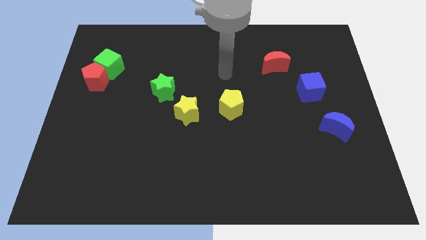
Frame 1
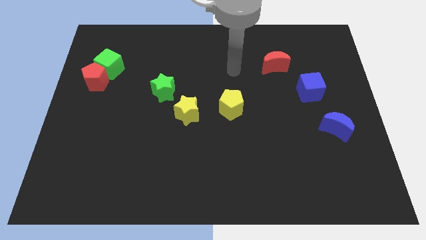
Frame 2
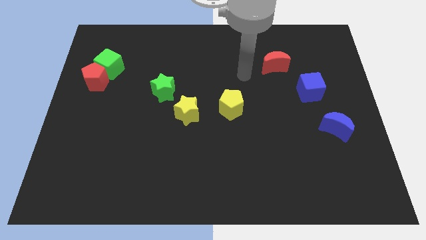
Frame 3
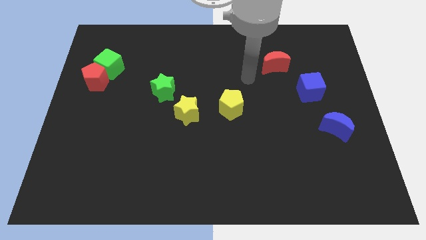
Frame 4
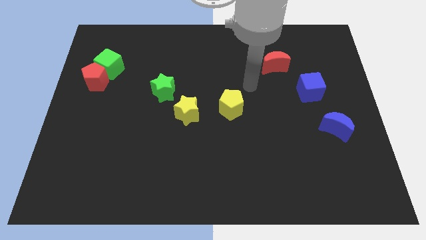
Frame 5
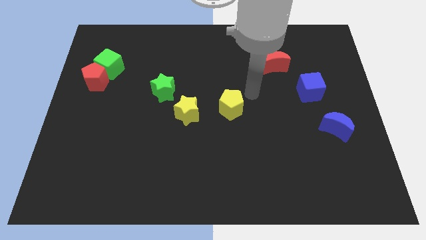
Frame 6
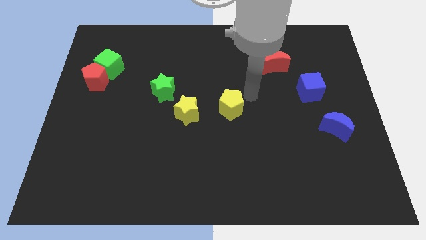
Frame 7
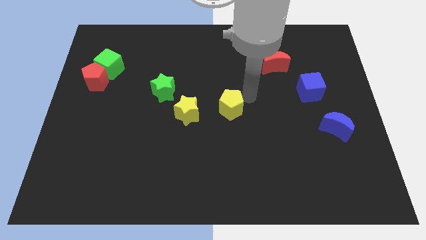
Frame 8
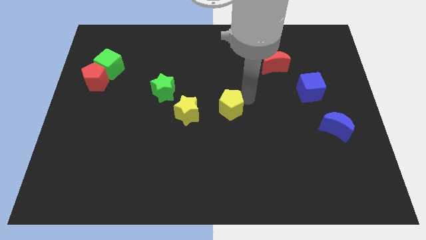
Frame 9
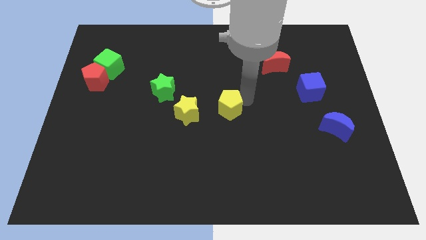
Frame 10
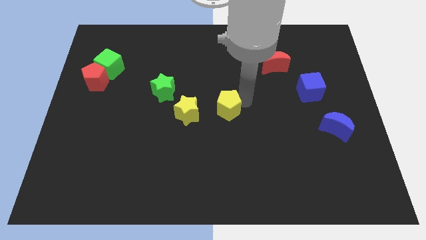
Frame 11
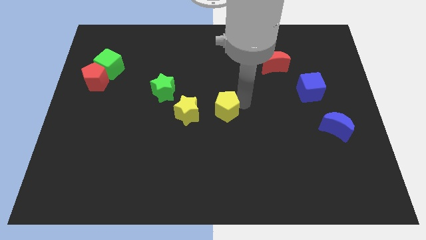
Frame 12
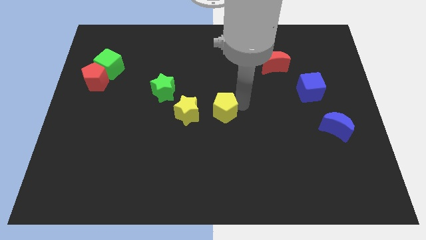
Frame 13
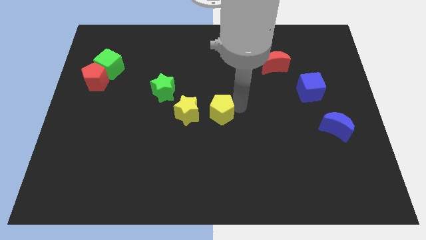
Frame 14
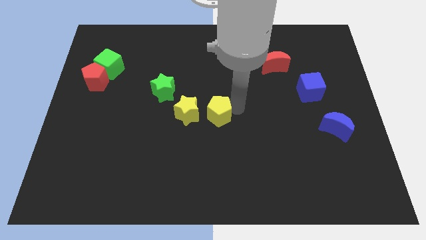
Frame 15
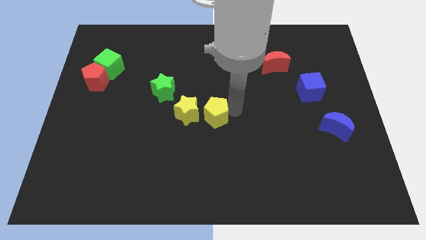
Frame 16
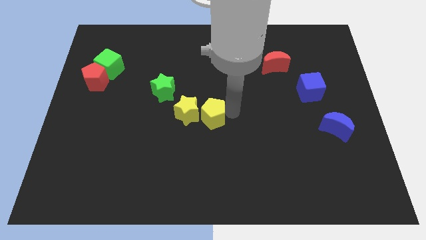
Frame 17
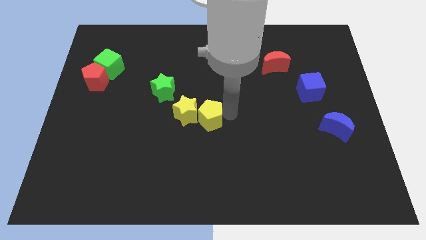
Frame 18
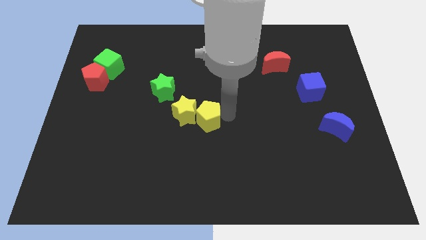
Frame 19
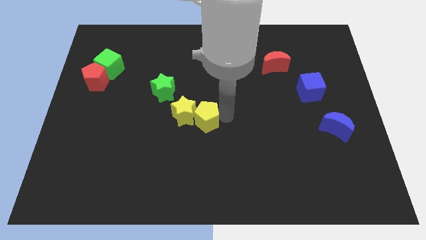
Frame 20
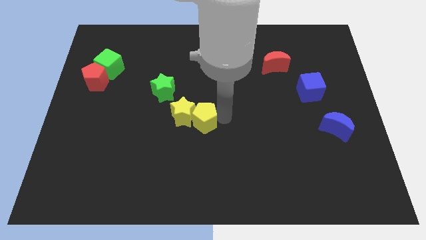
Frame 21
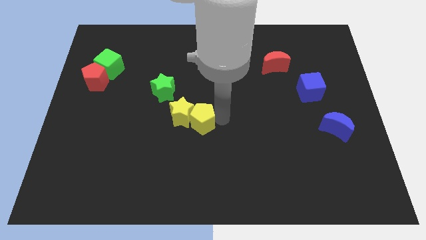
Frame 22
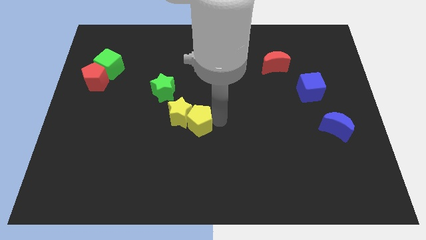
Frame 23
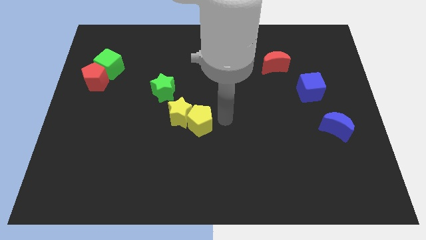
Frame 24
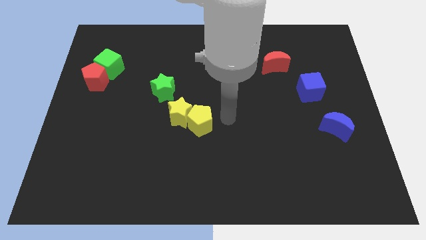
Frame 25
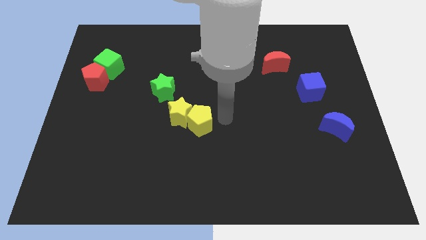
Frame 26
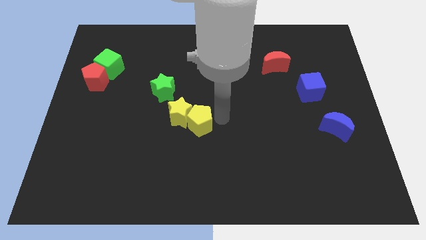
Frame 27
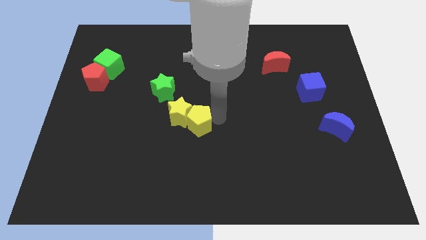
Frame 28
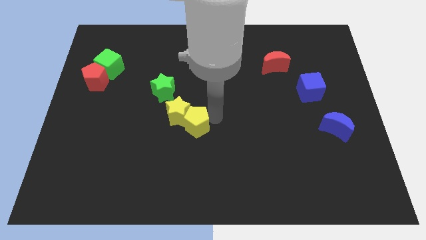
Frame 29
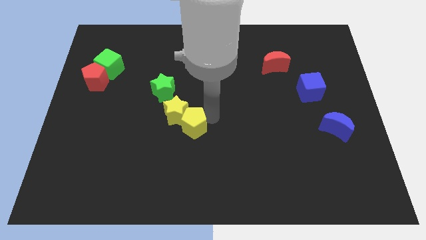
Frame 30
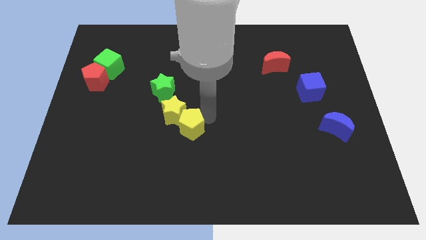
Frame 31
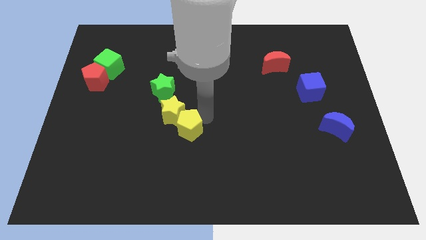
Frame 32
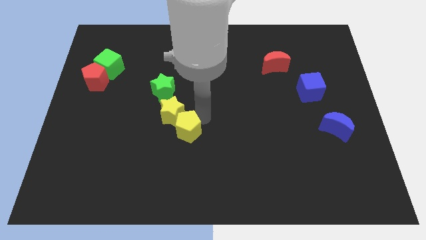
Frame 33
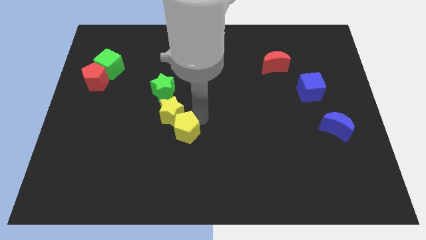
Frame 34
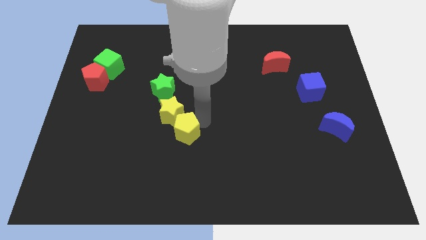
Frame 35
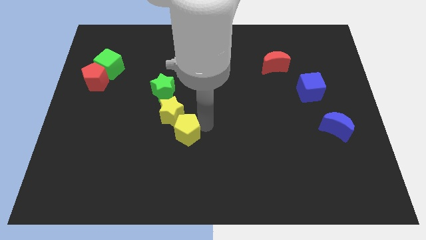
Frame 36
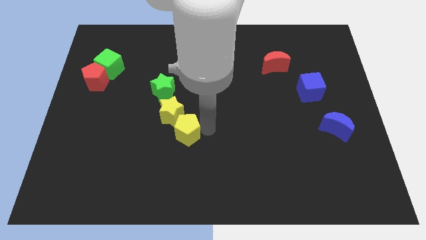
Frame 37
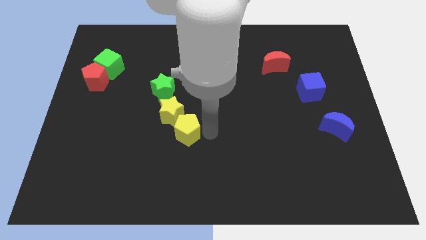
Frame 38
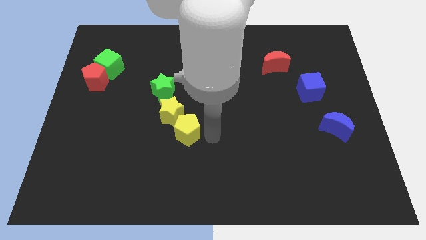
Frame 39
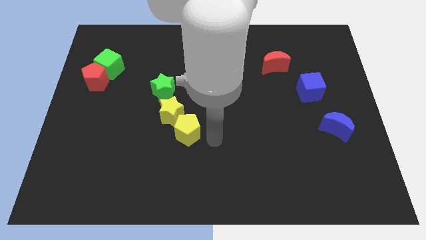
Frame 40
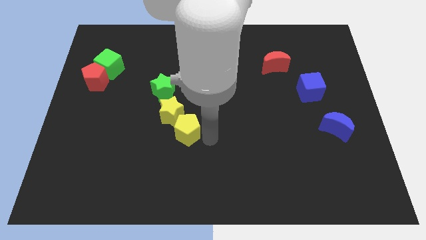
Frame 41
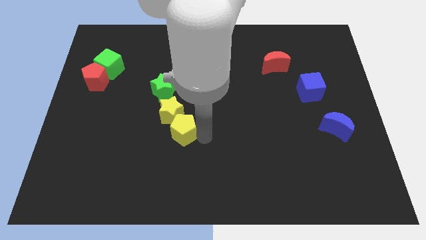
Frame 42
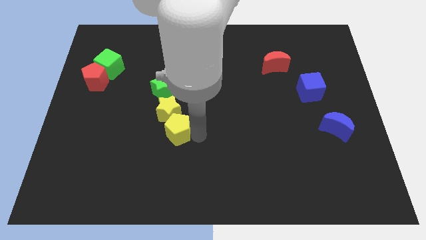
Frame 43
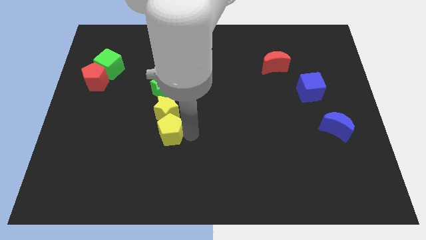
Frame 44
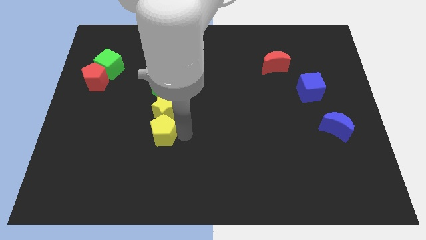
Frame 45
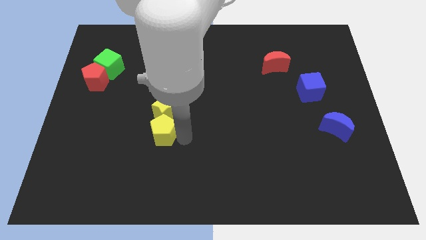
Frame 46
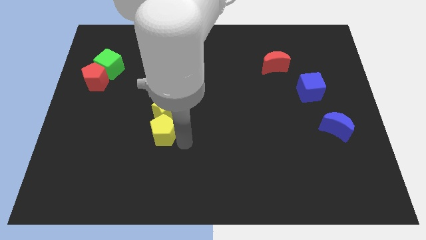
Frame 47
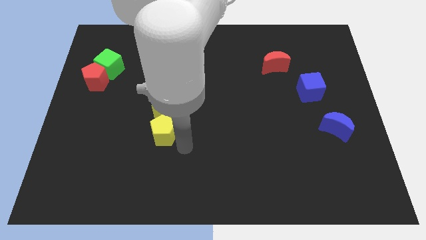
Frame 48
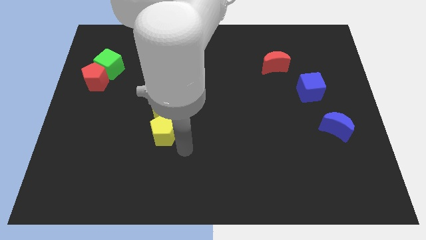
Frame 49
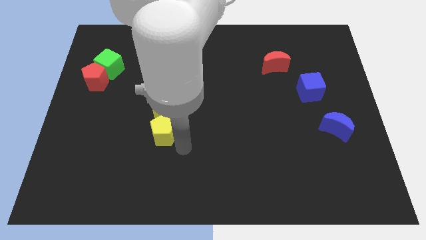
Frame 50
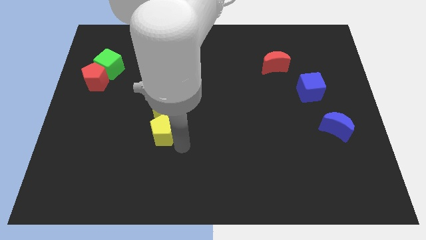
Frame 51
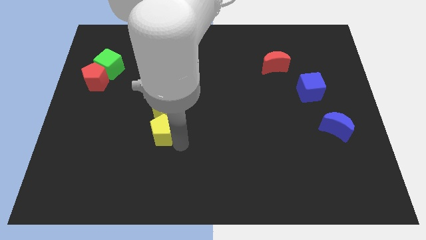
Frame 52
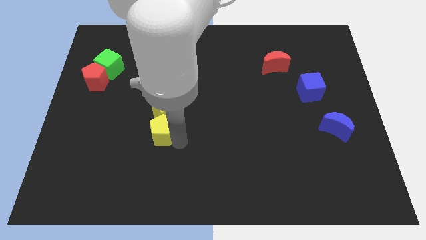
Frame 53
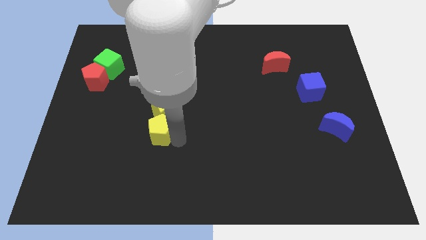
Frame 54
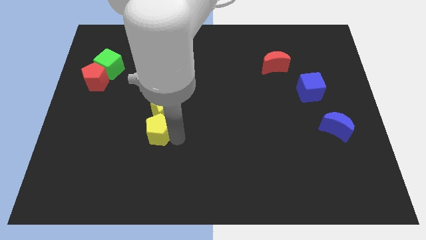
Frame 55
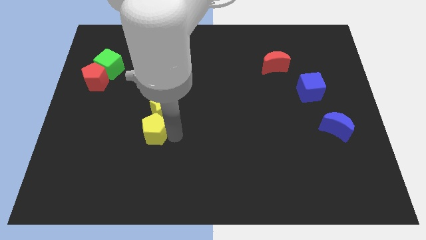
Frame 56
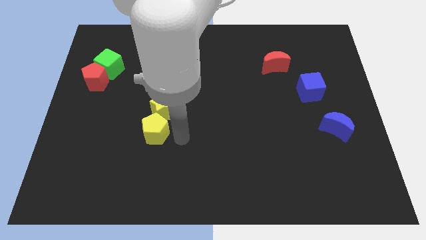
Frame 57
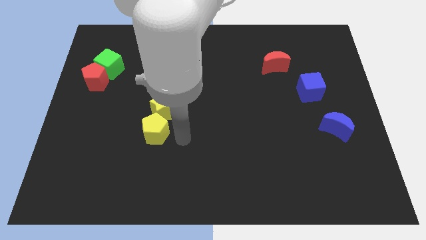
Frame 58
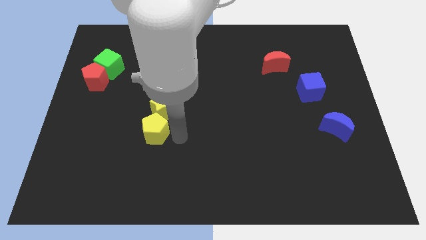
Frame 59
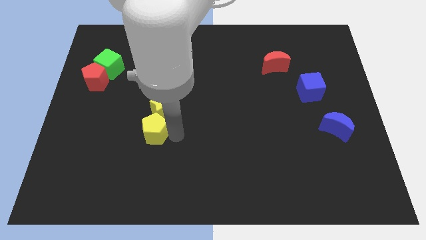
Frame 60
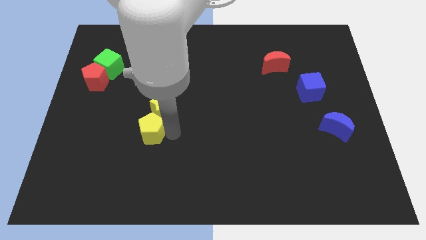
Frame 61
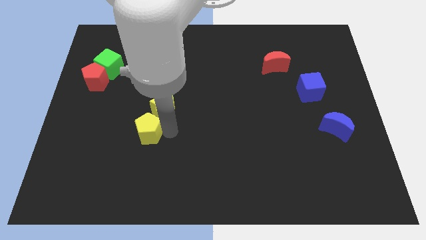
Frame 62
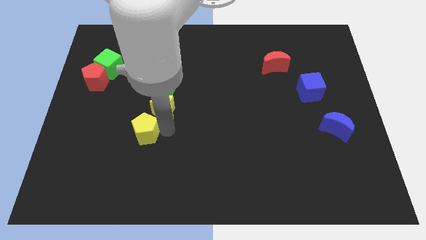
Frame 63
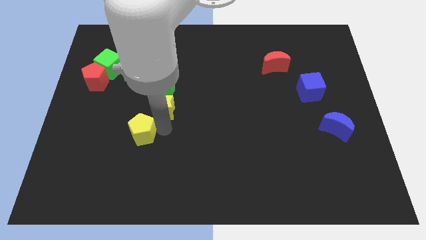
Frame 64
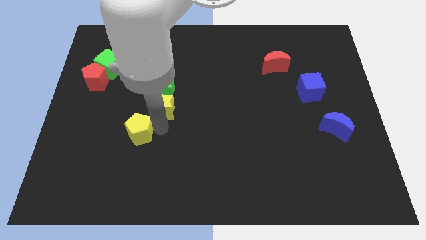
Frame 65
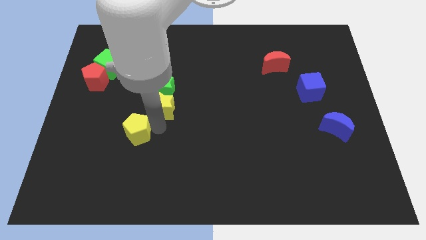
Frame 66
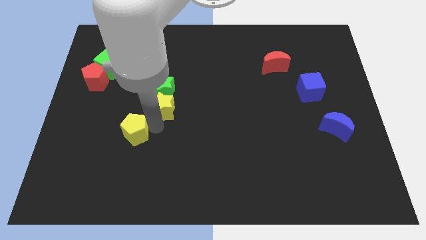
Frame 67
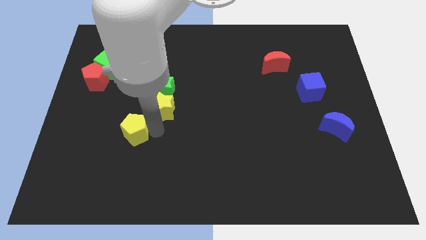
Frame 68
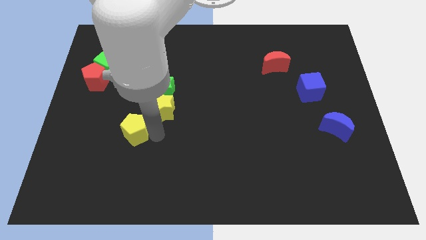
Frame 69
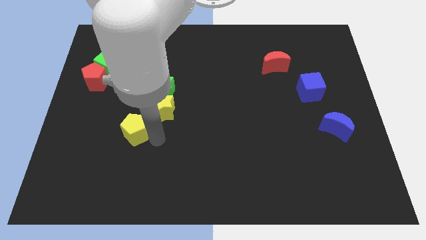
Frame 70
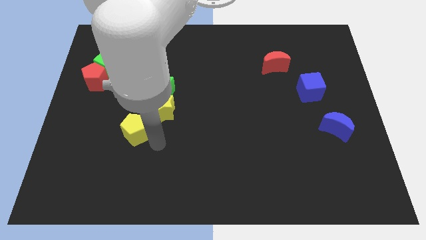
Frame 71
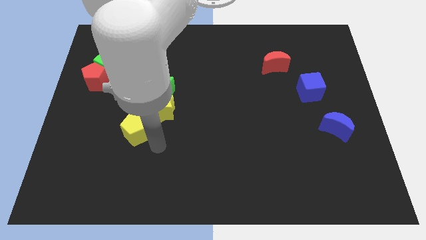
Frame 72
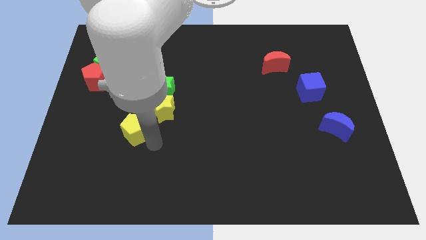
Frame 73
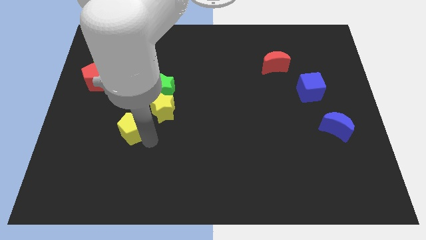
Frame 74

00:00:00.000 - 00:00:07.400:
move the yellow pentagon to the left

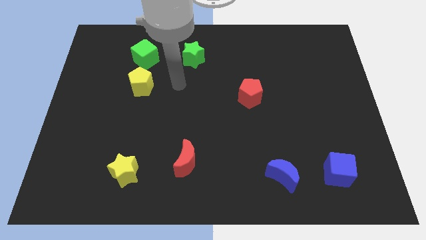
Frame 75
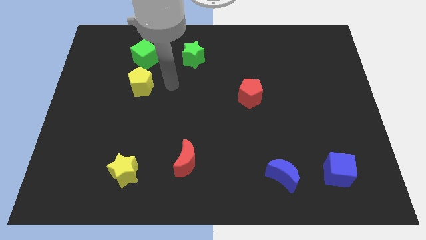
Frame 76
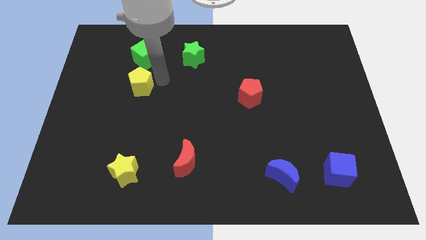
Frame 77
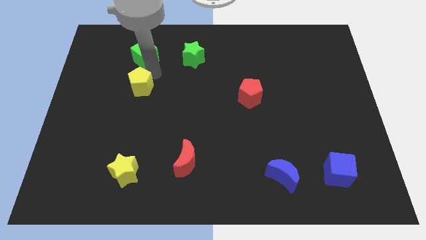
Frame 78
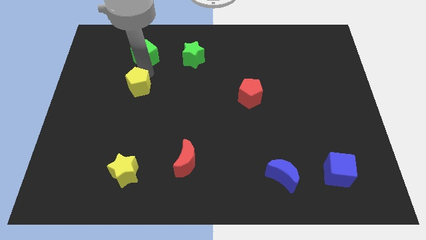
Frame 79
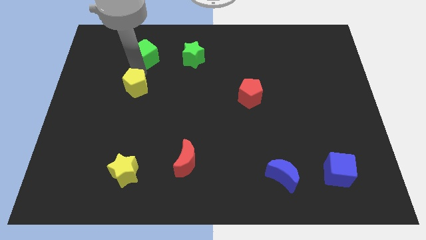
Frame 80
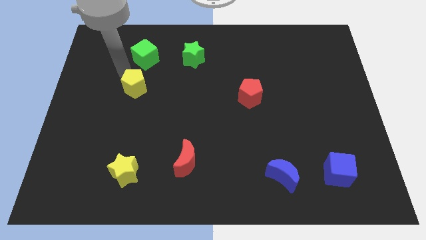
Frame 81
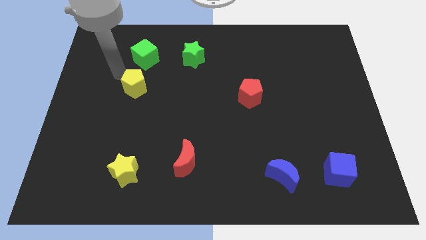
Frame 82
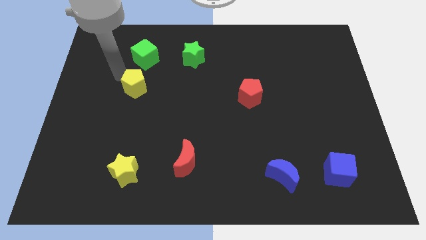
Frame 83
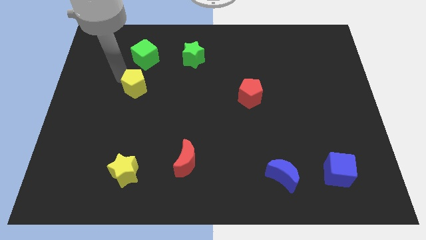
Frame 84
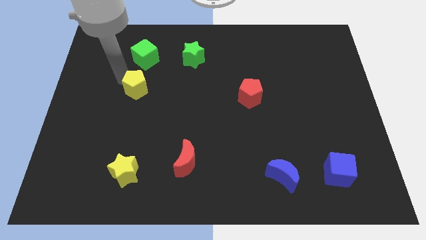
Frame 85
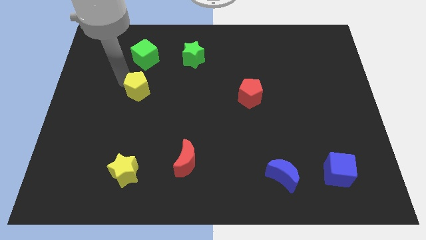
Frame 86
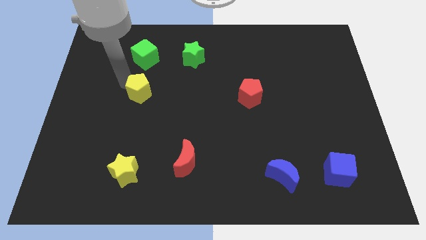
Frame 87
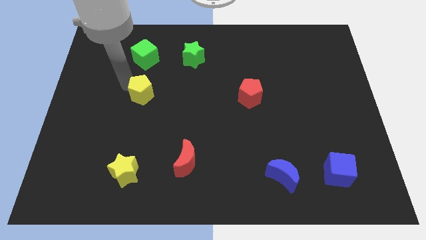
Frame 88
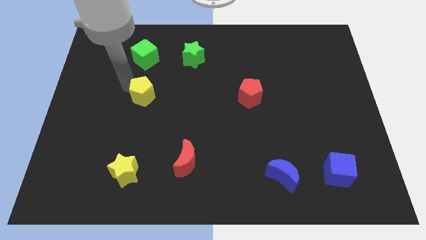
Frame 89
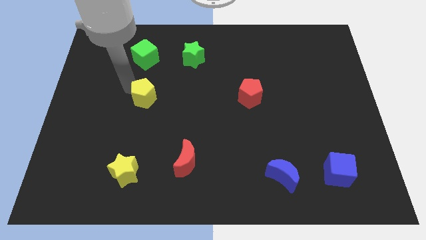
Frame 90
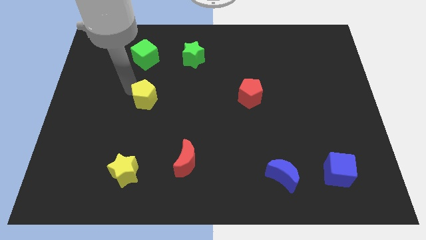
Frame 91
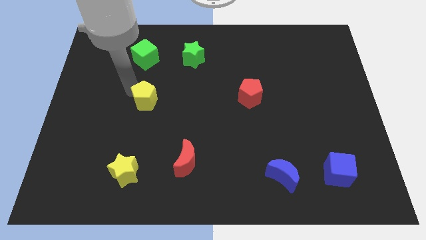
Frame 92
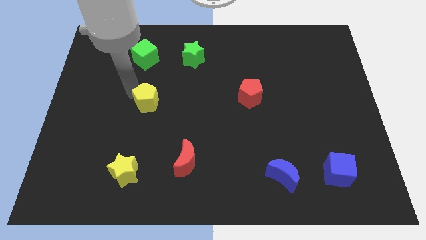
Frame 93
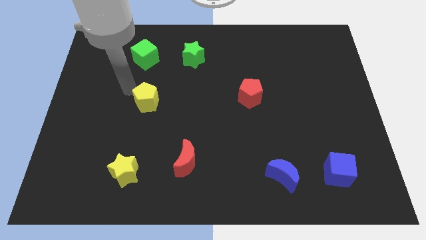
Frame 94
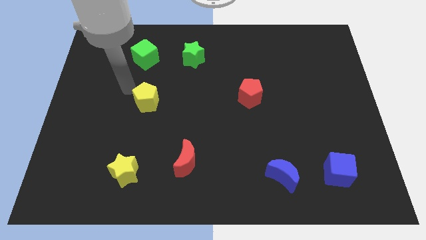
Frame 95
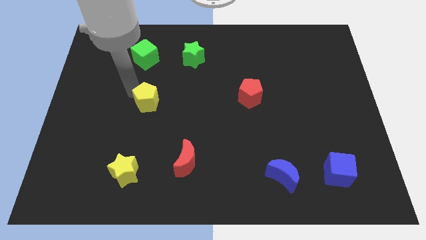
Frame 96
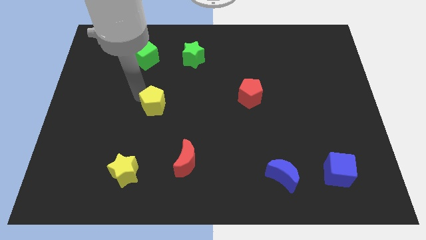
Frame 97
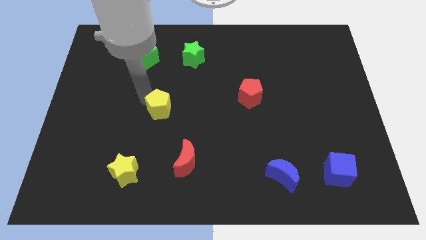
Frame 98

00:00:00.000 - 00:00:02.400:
move the yellow pentagon downwards and right diagonally a bit
